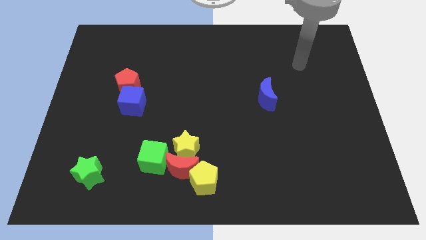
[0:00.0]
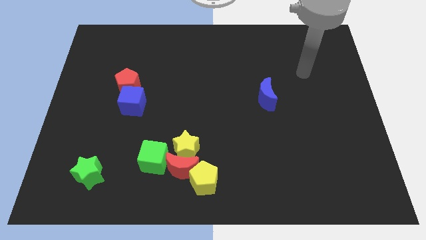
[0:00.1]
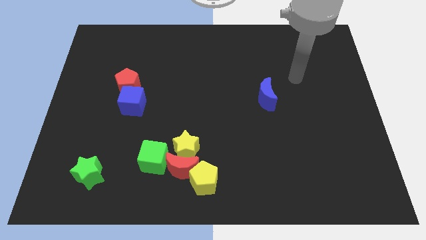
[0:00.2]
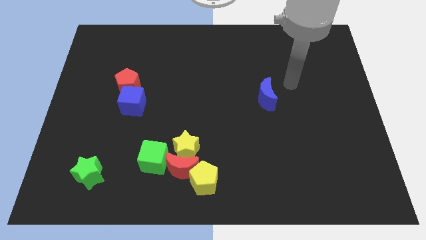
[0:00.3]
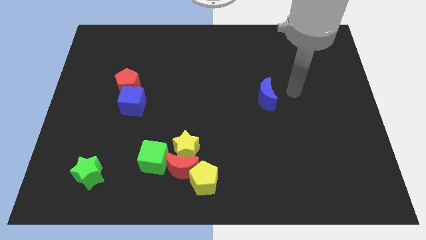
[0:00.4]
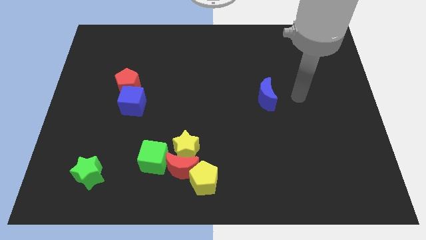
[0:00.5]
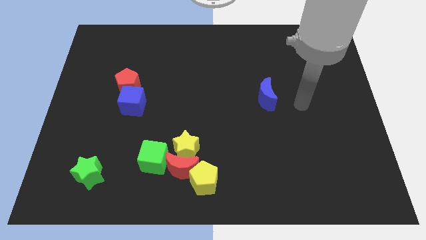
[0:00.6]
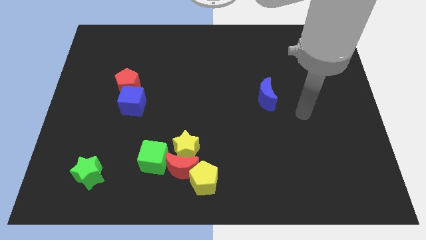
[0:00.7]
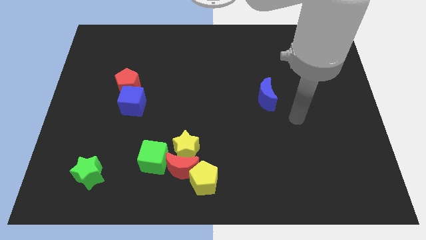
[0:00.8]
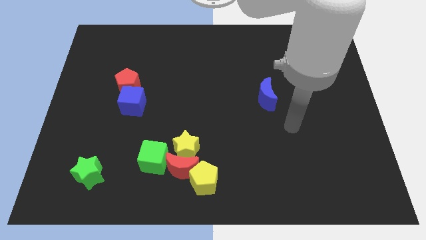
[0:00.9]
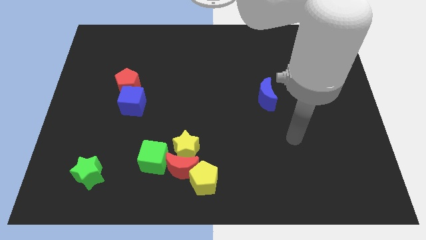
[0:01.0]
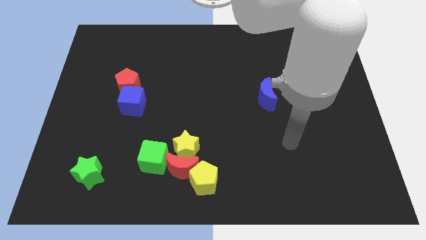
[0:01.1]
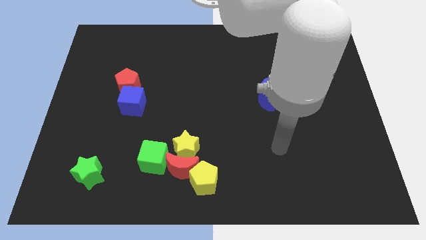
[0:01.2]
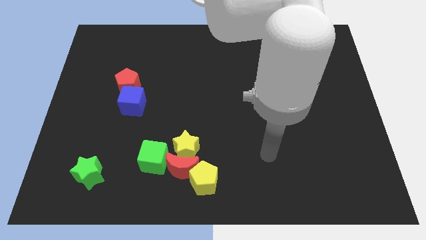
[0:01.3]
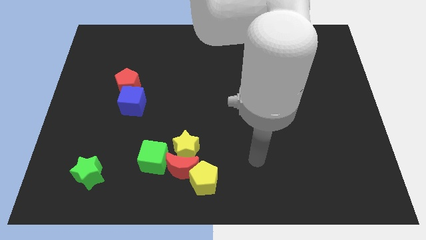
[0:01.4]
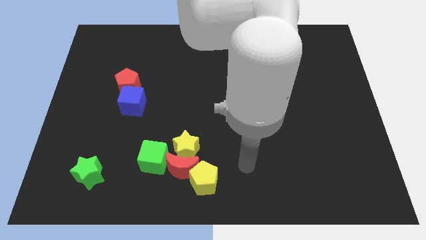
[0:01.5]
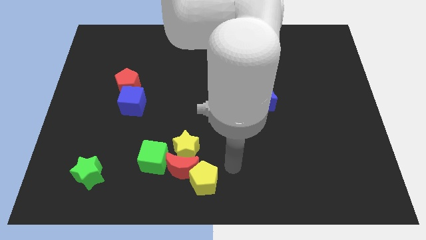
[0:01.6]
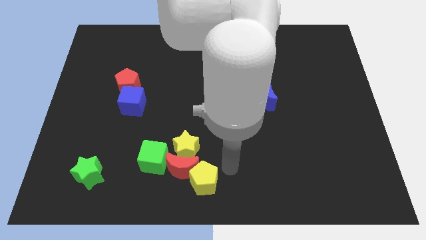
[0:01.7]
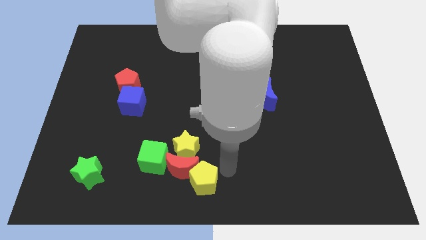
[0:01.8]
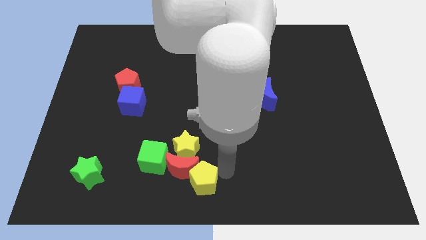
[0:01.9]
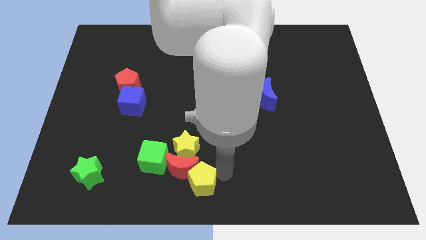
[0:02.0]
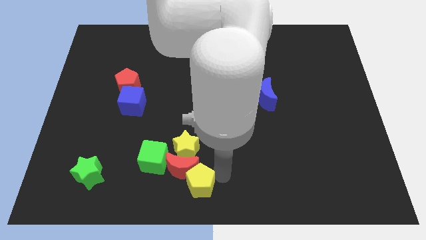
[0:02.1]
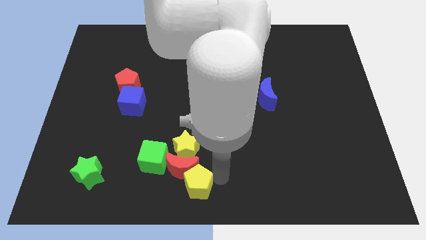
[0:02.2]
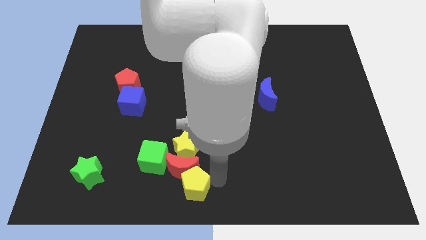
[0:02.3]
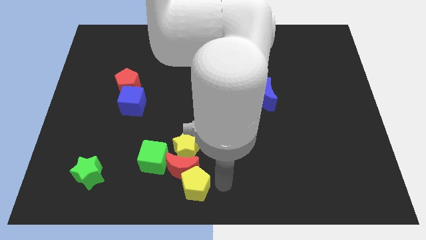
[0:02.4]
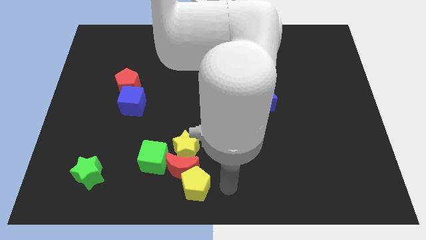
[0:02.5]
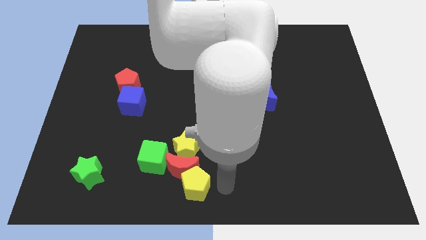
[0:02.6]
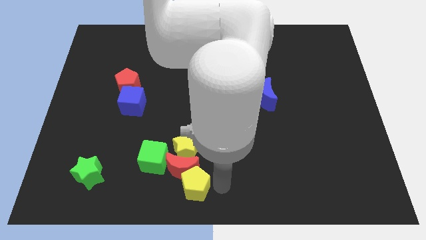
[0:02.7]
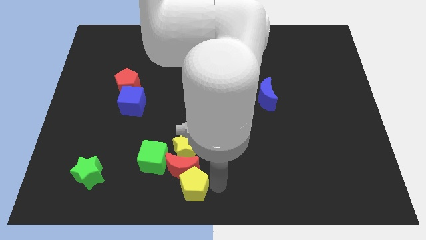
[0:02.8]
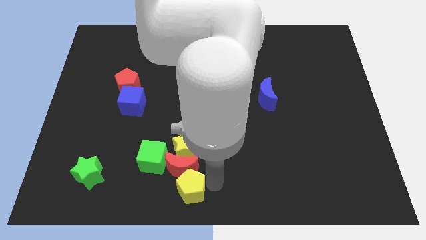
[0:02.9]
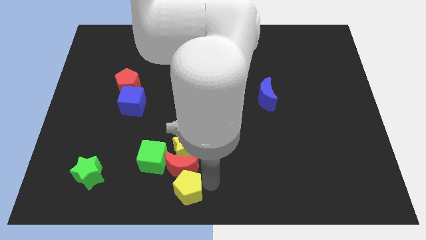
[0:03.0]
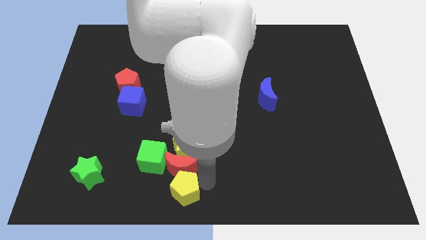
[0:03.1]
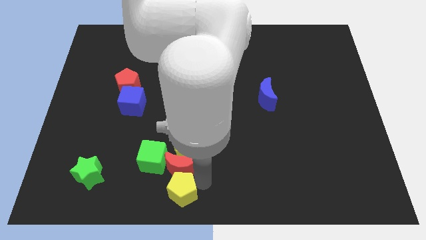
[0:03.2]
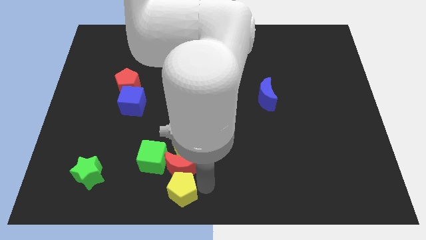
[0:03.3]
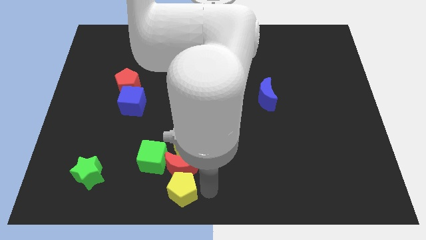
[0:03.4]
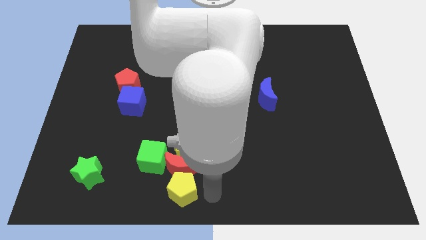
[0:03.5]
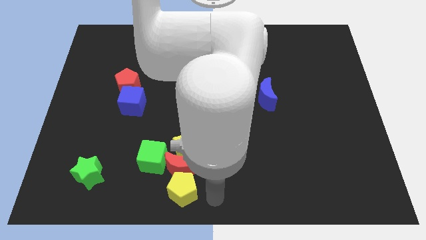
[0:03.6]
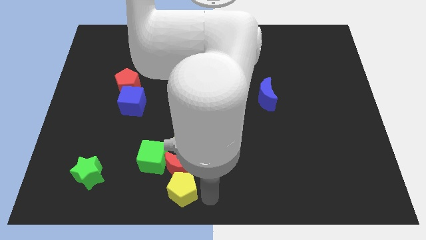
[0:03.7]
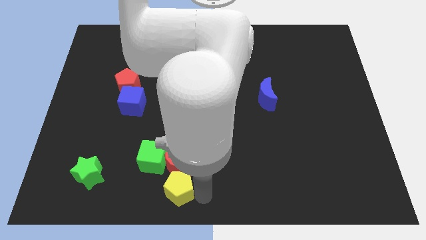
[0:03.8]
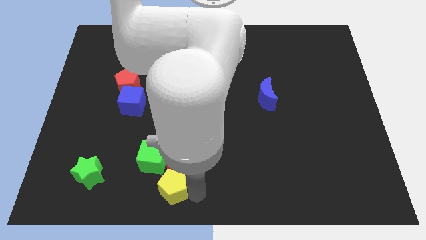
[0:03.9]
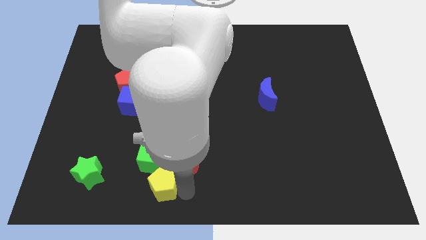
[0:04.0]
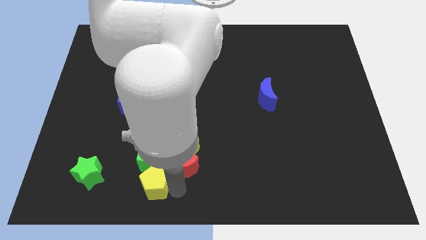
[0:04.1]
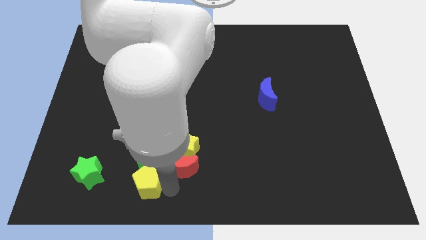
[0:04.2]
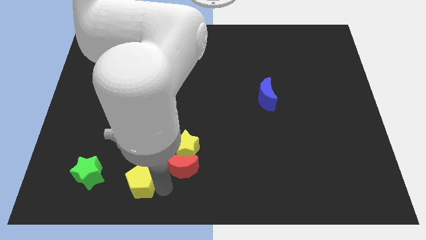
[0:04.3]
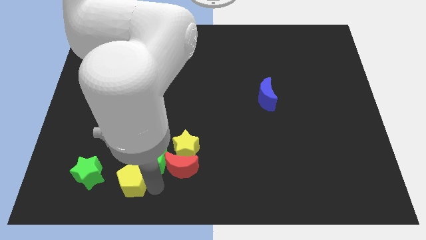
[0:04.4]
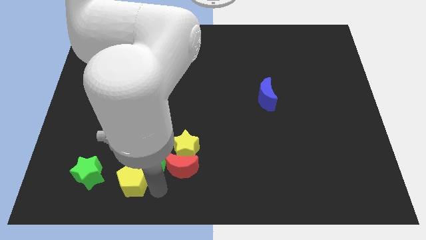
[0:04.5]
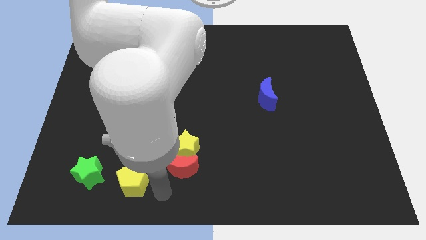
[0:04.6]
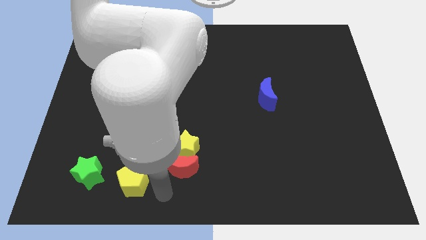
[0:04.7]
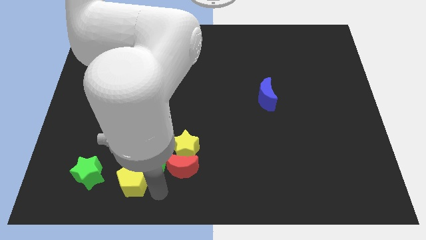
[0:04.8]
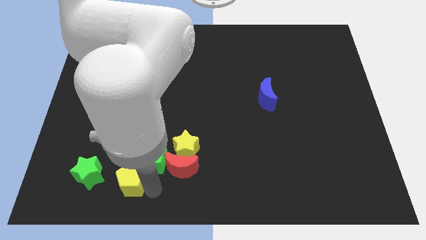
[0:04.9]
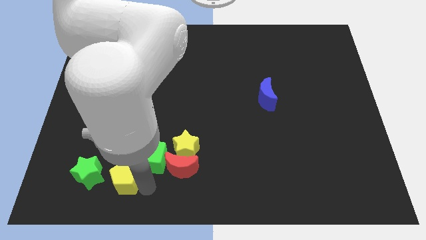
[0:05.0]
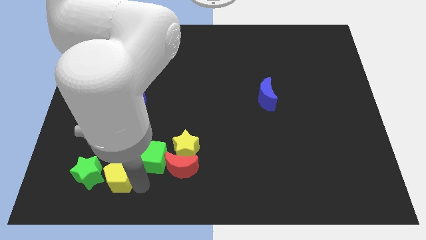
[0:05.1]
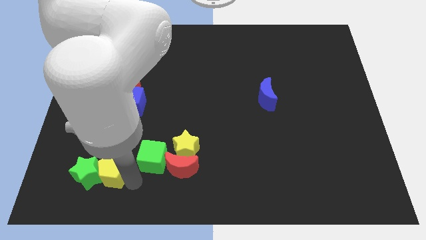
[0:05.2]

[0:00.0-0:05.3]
put the yellow pentagon towards the green star

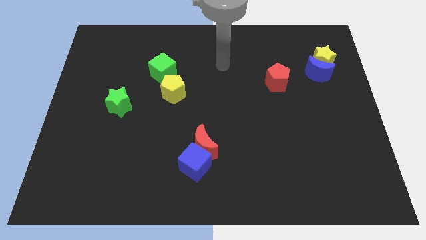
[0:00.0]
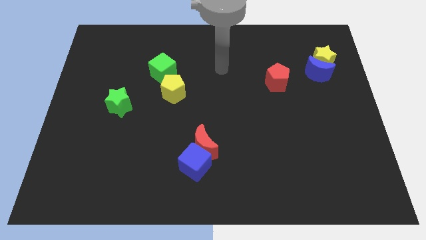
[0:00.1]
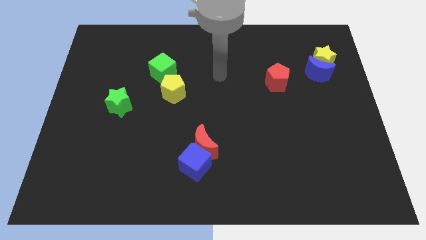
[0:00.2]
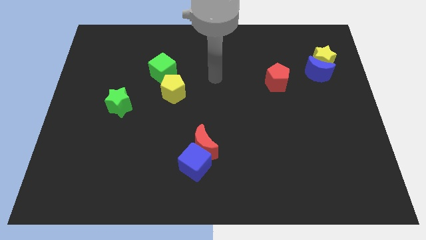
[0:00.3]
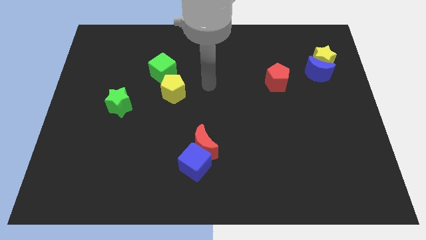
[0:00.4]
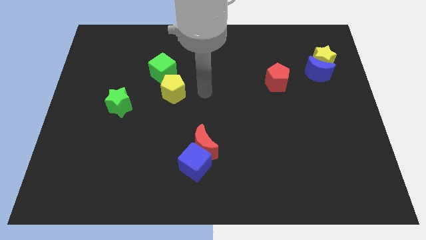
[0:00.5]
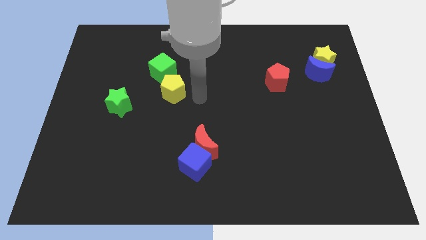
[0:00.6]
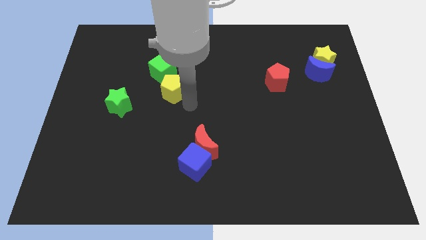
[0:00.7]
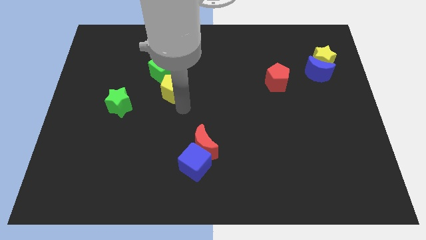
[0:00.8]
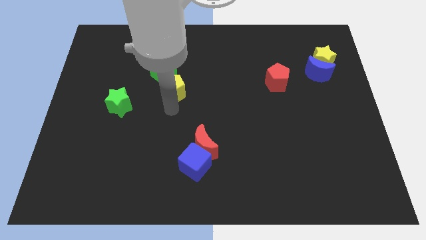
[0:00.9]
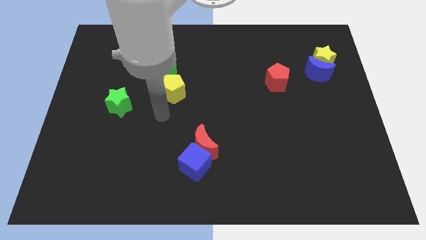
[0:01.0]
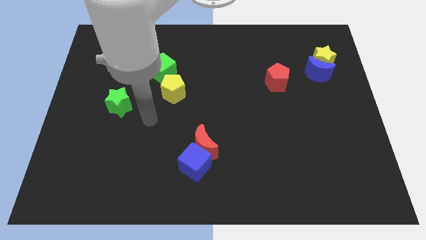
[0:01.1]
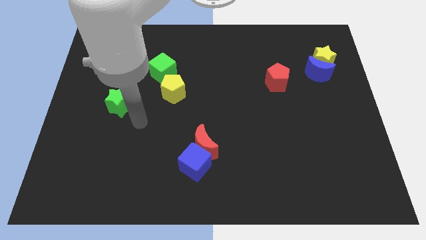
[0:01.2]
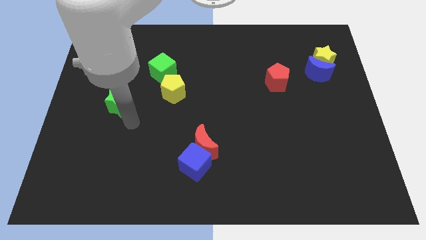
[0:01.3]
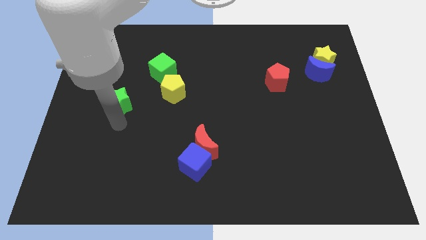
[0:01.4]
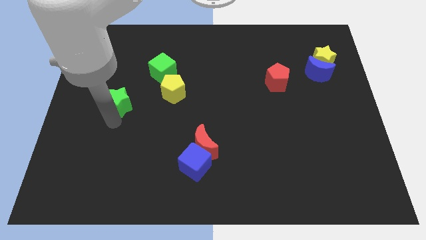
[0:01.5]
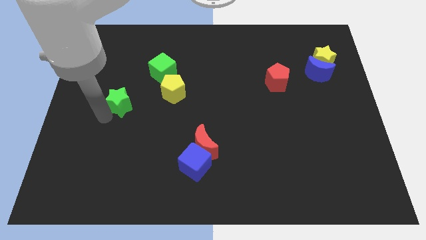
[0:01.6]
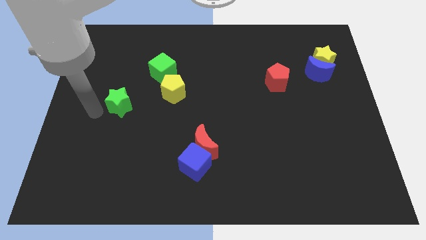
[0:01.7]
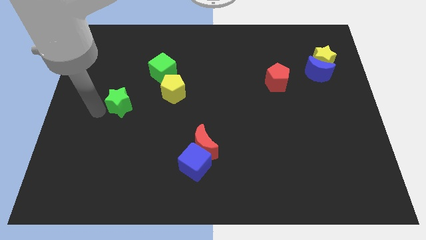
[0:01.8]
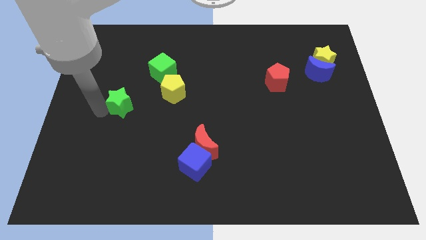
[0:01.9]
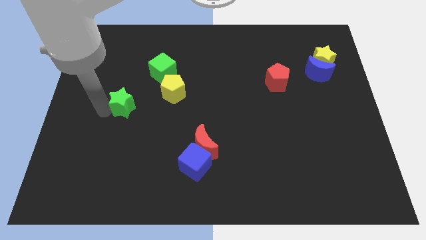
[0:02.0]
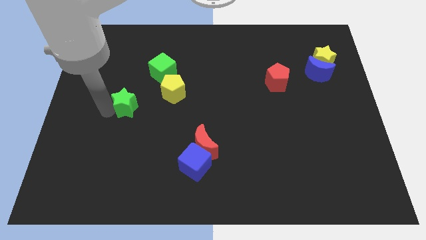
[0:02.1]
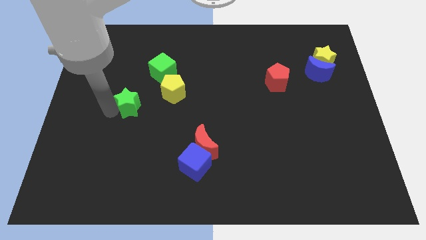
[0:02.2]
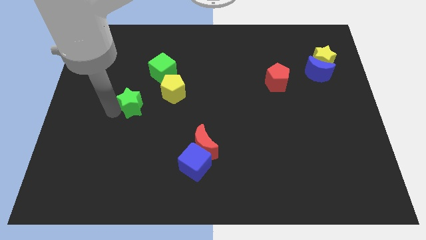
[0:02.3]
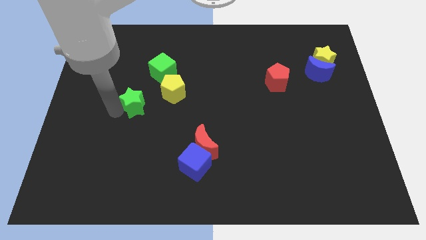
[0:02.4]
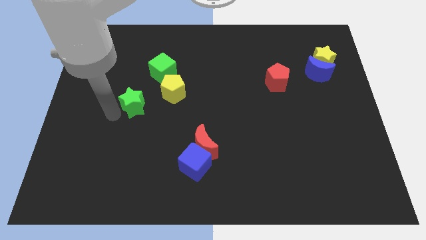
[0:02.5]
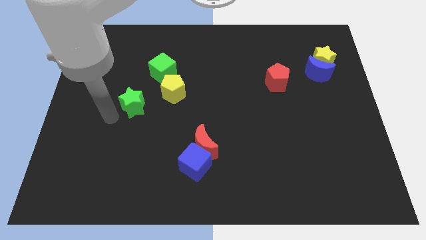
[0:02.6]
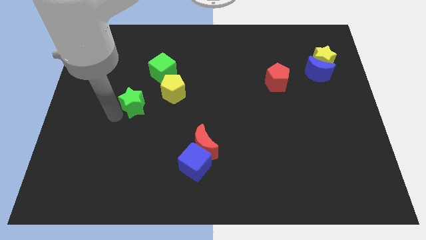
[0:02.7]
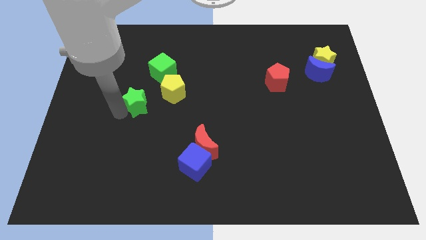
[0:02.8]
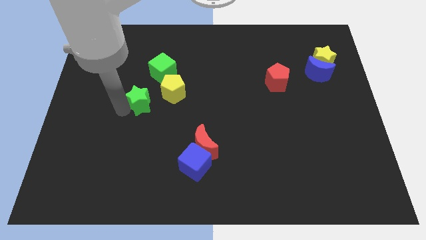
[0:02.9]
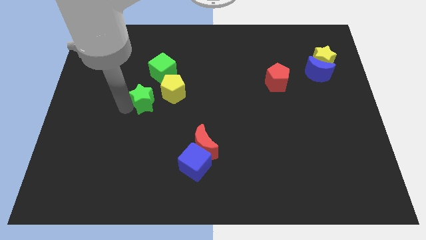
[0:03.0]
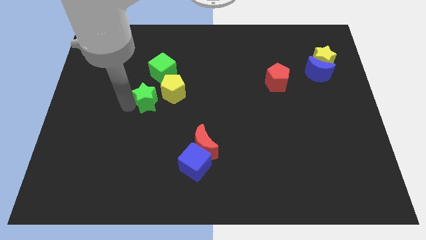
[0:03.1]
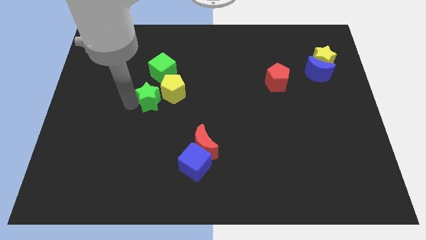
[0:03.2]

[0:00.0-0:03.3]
slide the green star to the yellow pentagon
